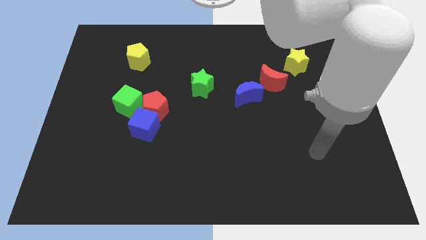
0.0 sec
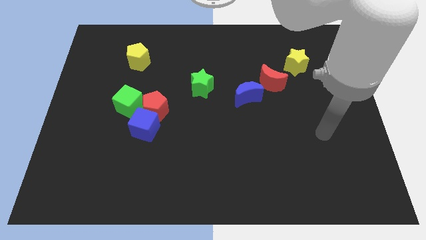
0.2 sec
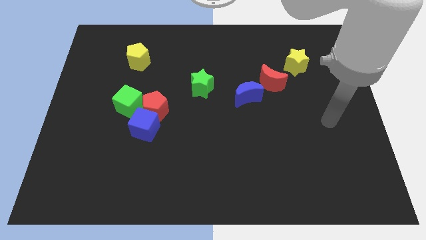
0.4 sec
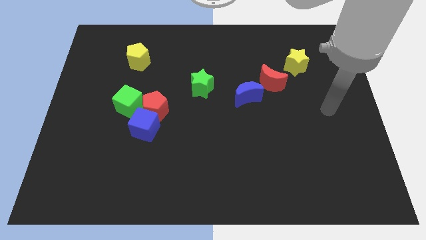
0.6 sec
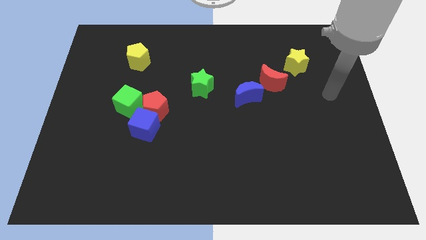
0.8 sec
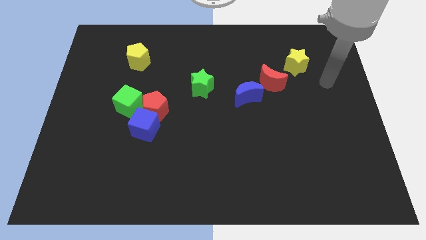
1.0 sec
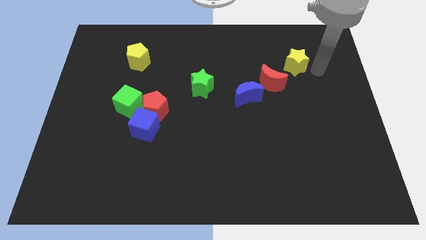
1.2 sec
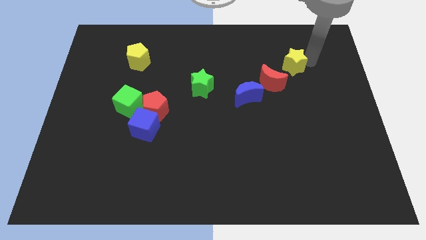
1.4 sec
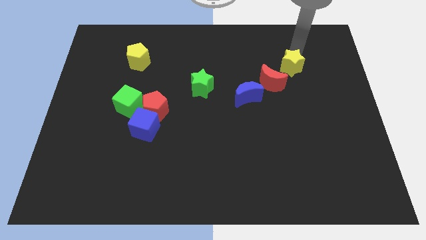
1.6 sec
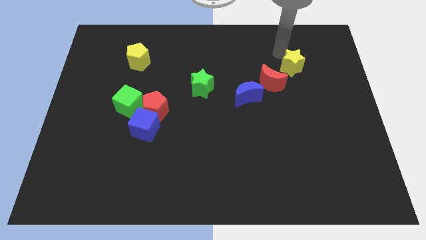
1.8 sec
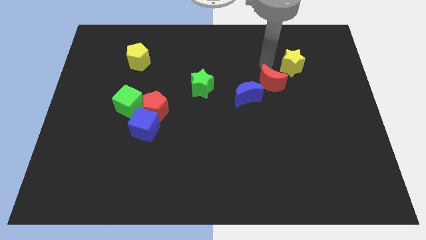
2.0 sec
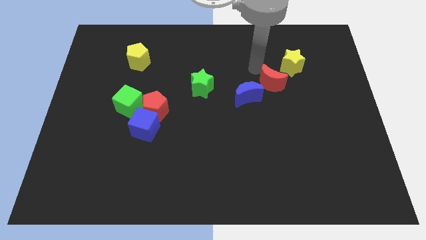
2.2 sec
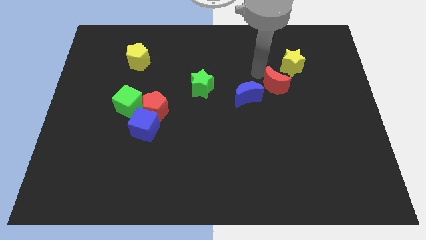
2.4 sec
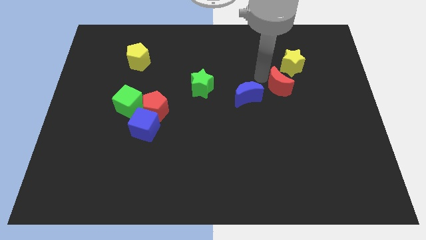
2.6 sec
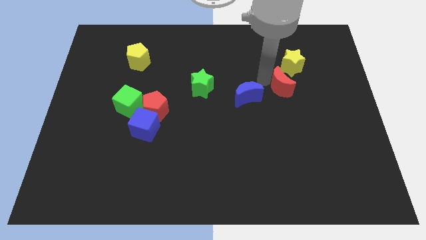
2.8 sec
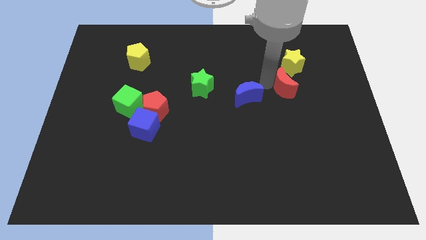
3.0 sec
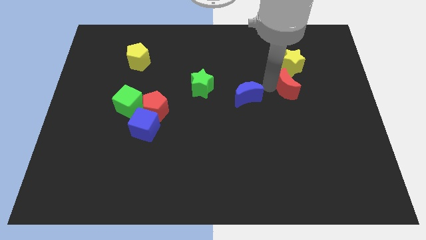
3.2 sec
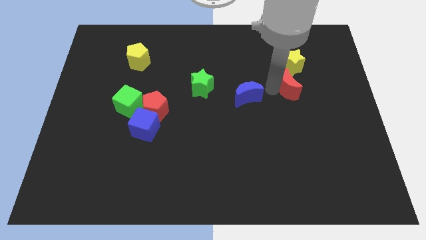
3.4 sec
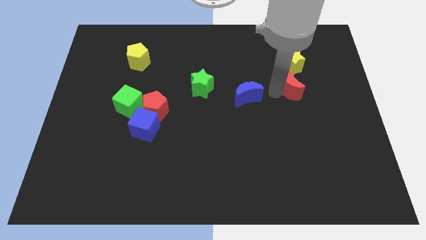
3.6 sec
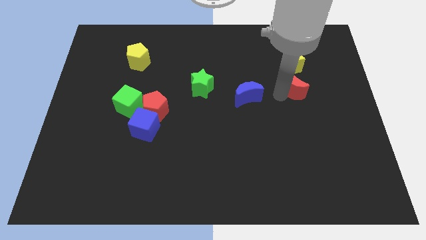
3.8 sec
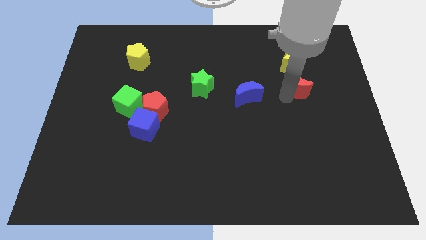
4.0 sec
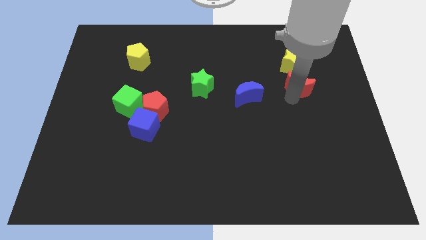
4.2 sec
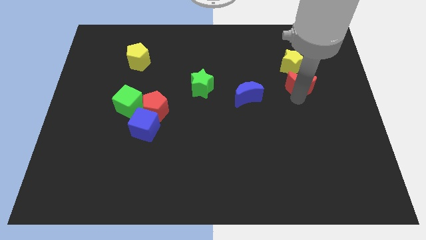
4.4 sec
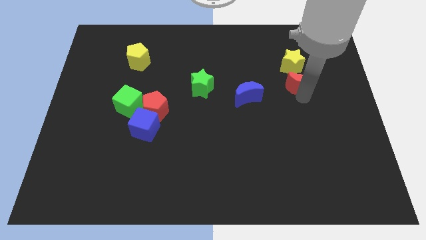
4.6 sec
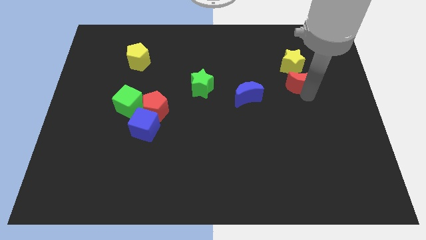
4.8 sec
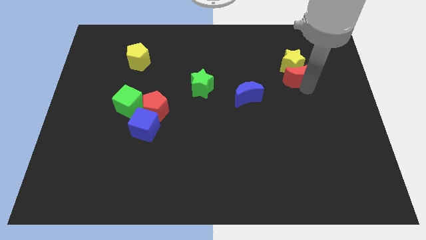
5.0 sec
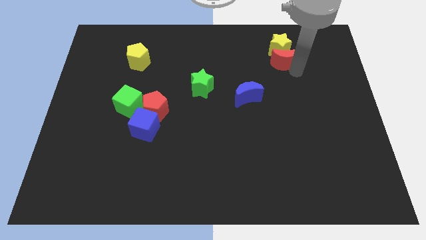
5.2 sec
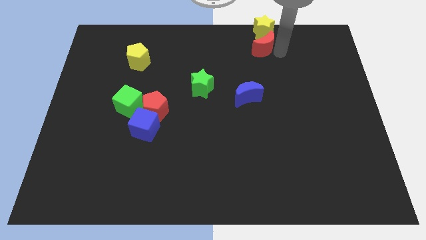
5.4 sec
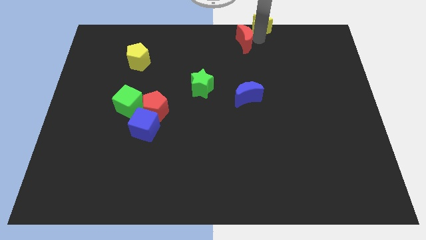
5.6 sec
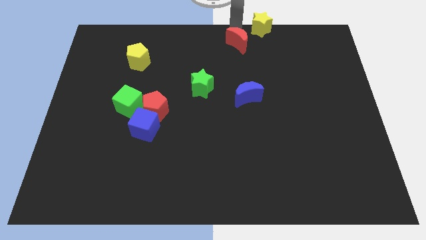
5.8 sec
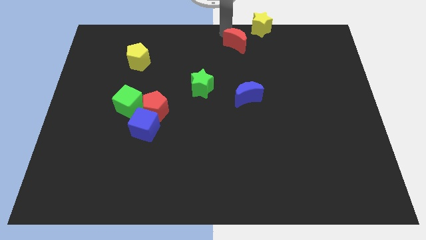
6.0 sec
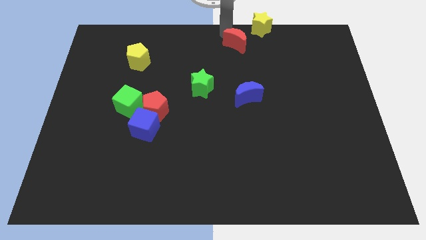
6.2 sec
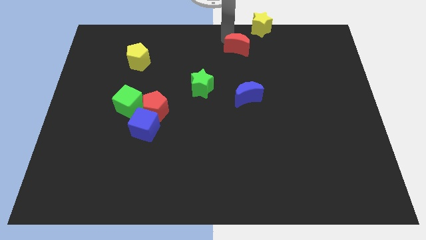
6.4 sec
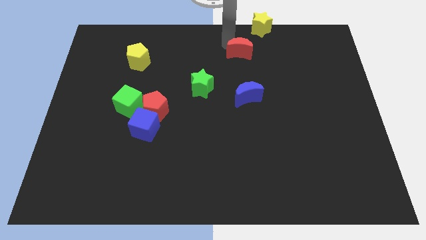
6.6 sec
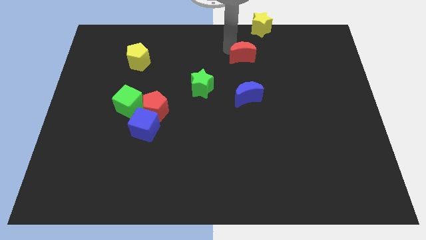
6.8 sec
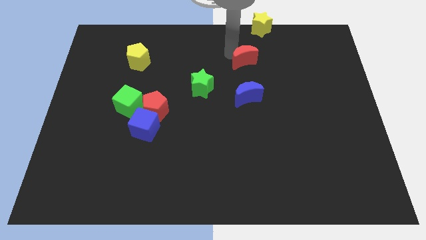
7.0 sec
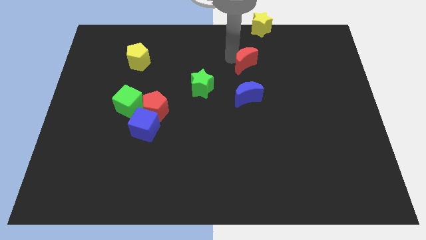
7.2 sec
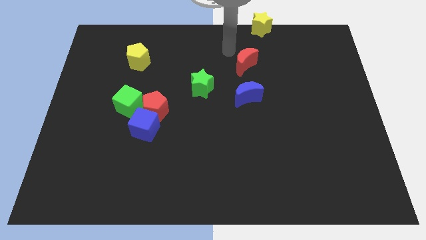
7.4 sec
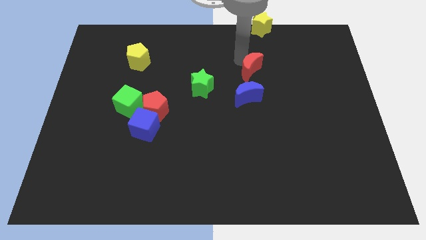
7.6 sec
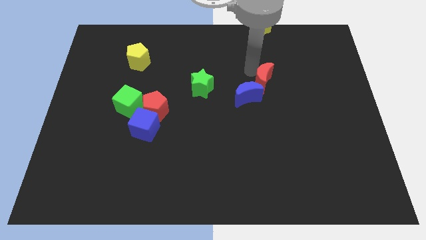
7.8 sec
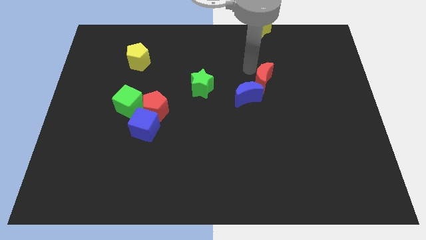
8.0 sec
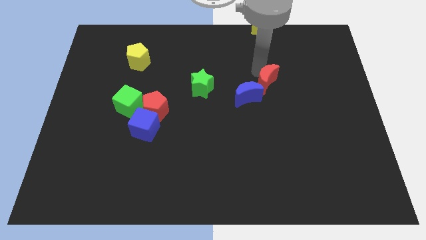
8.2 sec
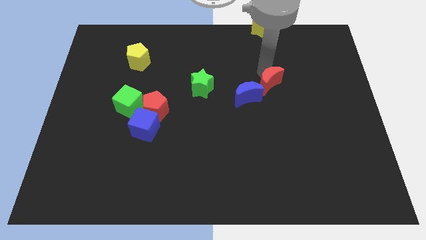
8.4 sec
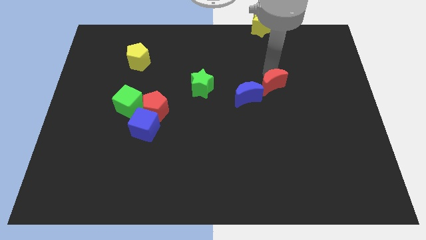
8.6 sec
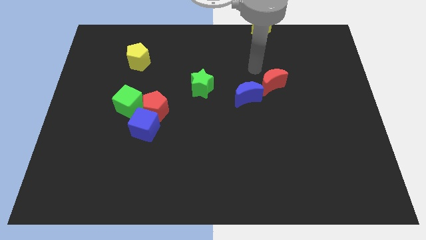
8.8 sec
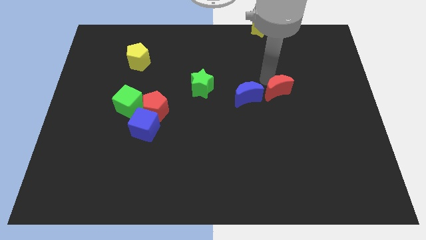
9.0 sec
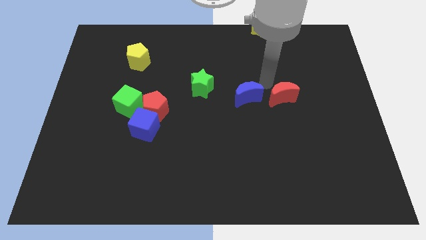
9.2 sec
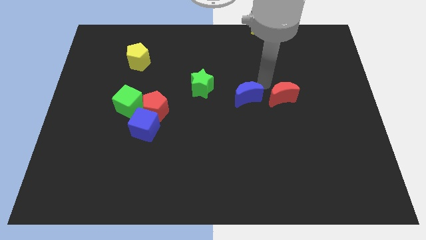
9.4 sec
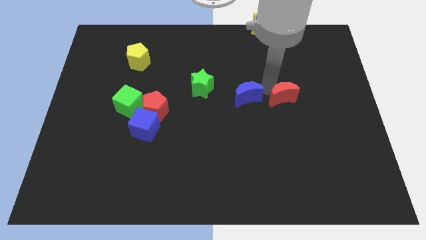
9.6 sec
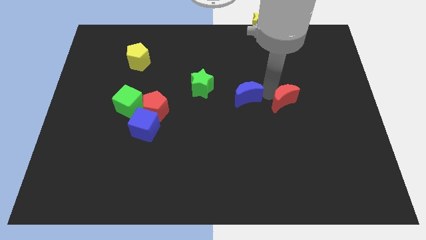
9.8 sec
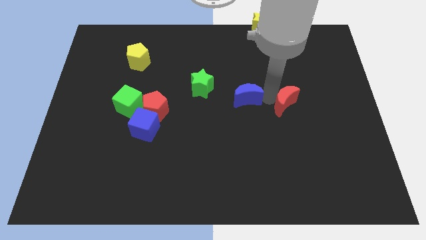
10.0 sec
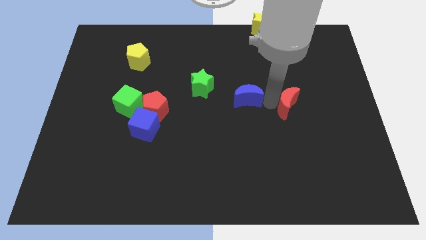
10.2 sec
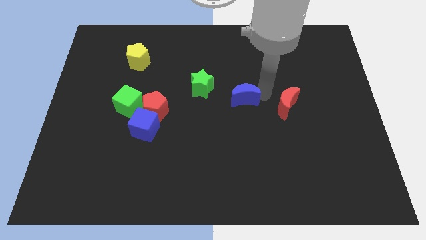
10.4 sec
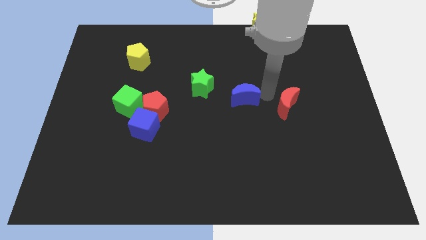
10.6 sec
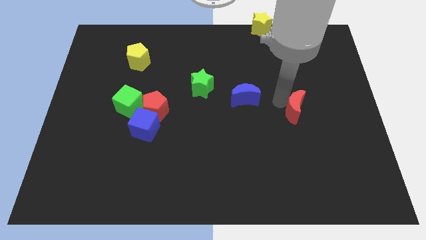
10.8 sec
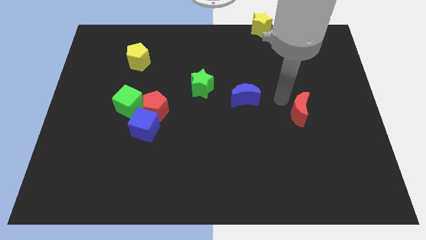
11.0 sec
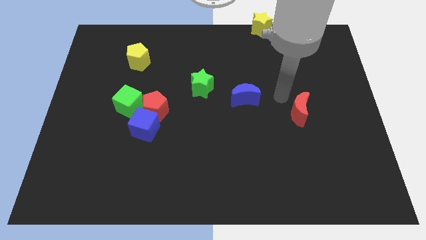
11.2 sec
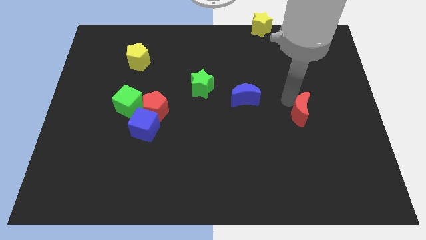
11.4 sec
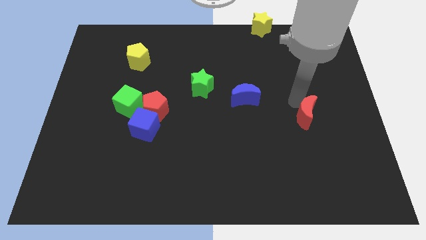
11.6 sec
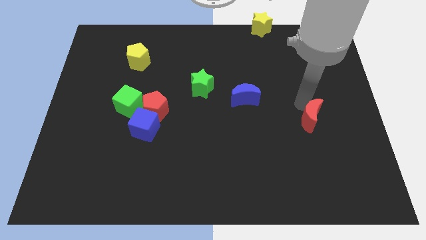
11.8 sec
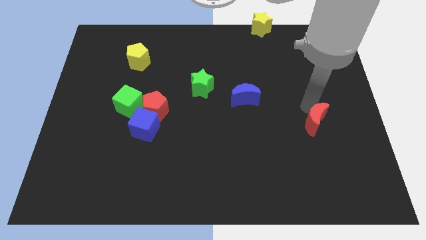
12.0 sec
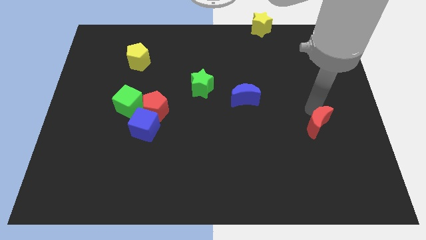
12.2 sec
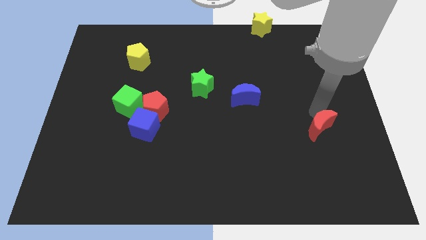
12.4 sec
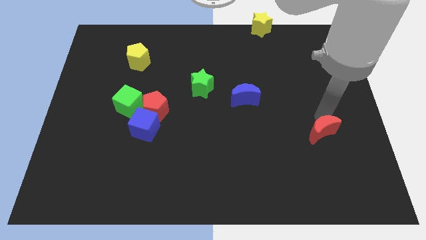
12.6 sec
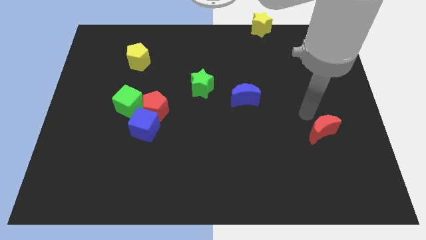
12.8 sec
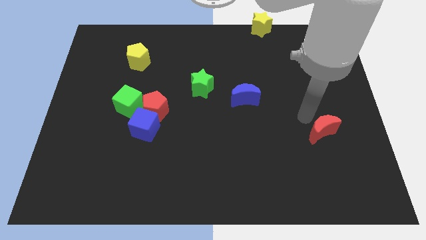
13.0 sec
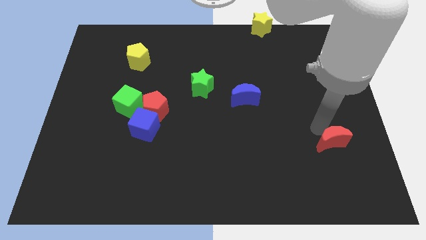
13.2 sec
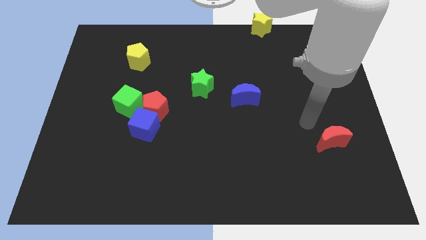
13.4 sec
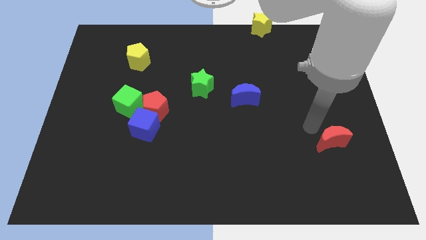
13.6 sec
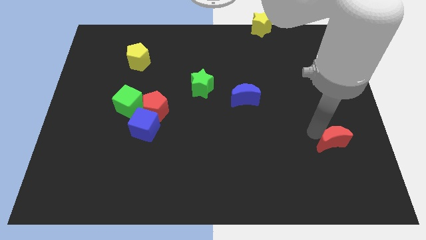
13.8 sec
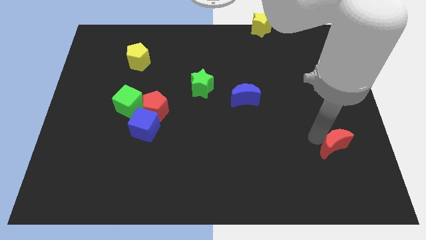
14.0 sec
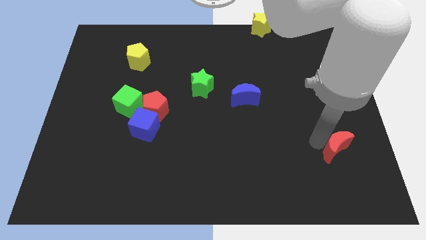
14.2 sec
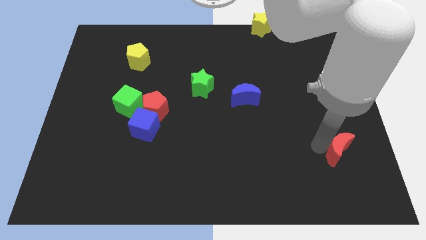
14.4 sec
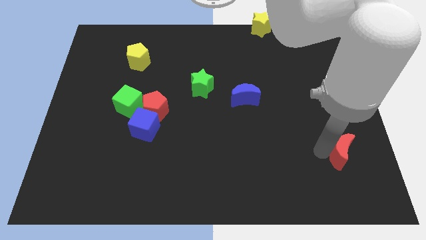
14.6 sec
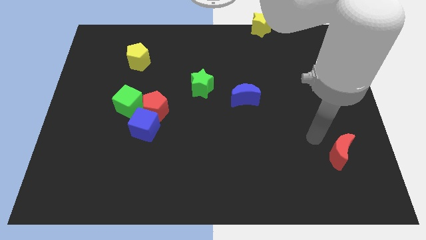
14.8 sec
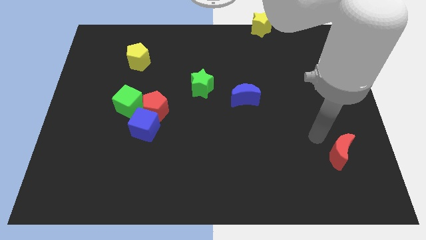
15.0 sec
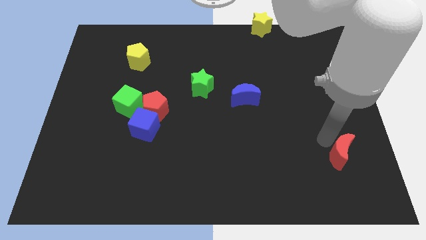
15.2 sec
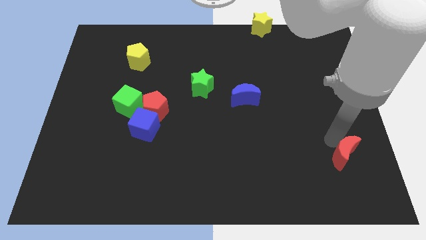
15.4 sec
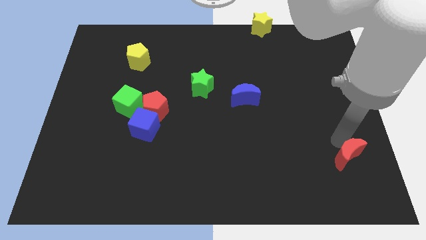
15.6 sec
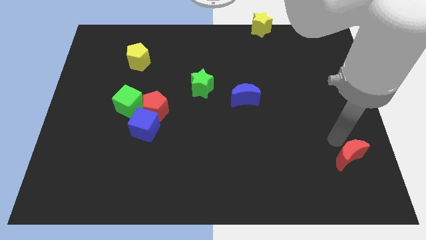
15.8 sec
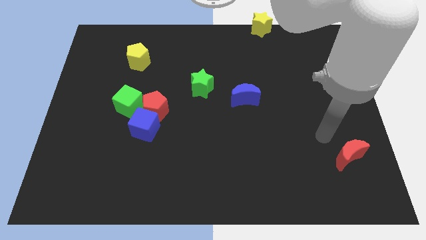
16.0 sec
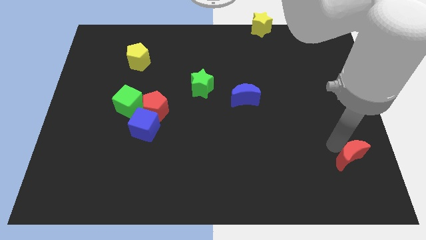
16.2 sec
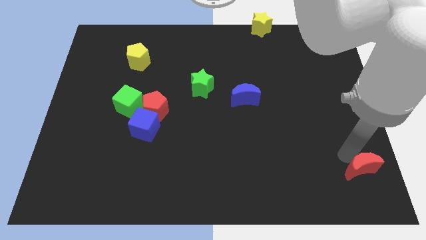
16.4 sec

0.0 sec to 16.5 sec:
put the red moon to the bottom right of the board
